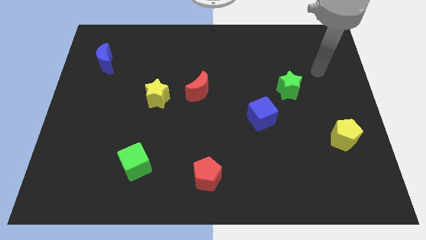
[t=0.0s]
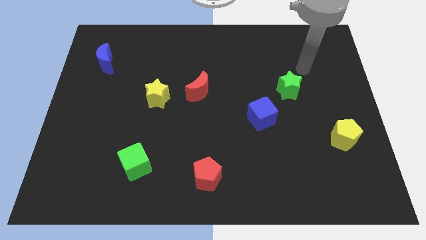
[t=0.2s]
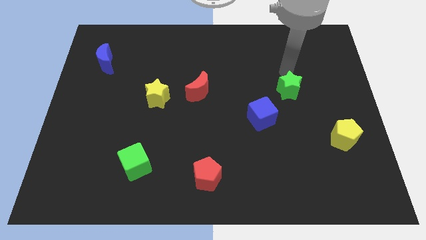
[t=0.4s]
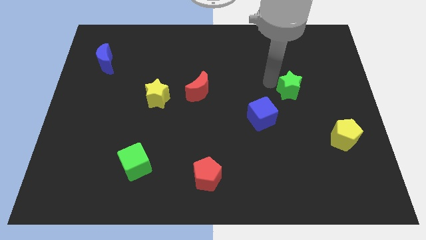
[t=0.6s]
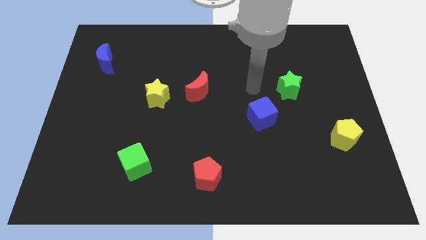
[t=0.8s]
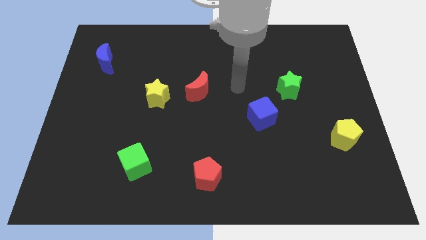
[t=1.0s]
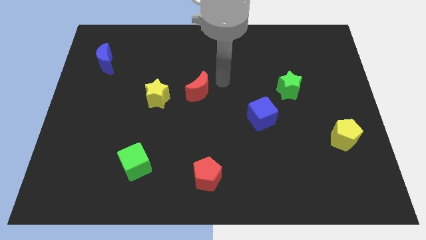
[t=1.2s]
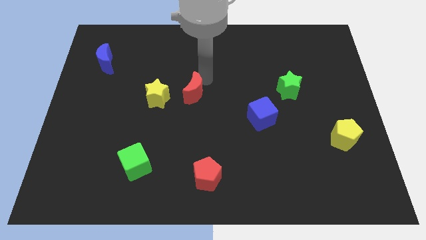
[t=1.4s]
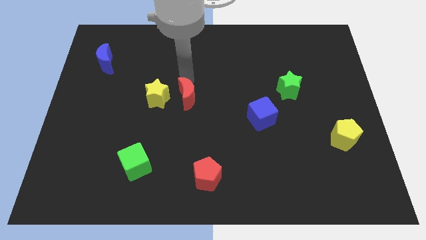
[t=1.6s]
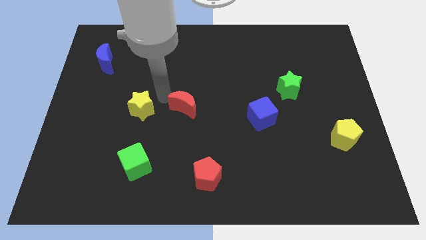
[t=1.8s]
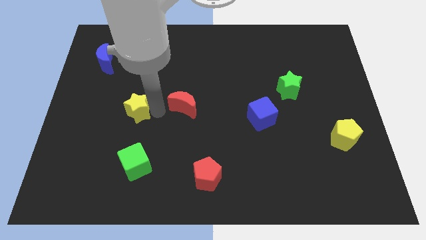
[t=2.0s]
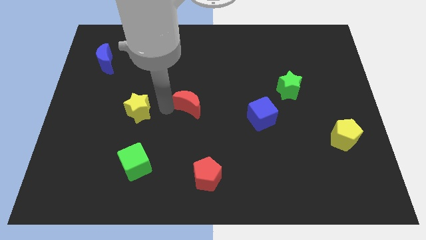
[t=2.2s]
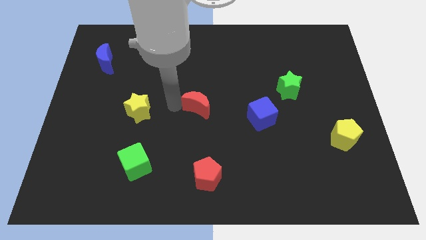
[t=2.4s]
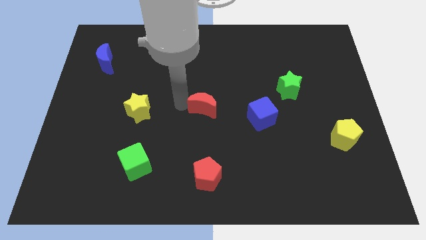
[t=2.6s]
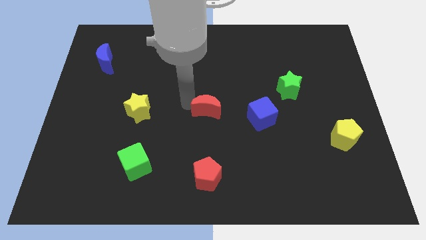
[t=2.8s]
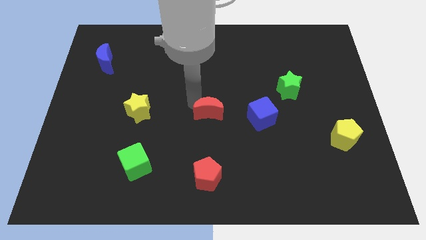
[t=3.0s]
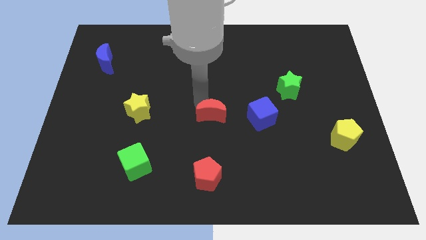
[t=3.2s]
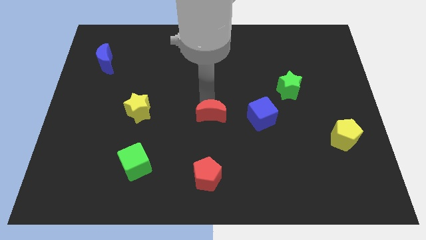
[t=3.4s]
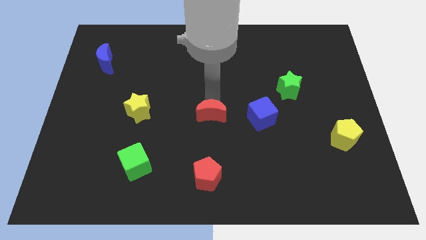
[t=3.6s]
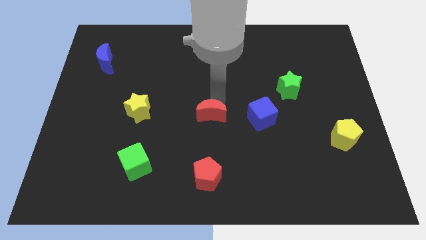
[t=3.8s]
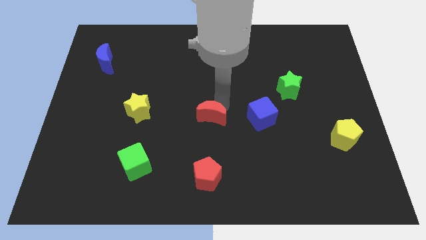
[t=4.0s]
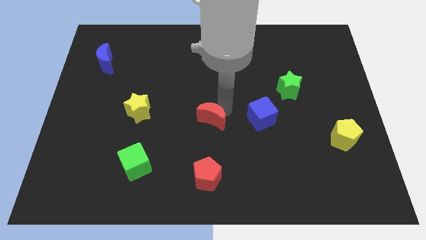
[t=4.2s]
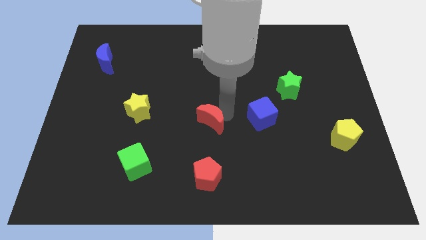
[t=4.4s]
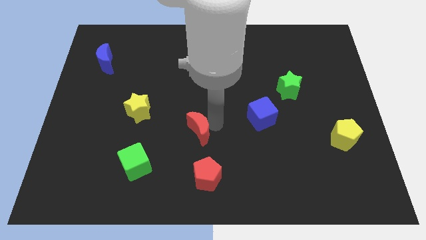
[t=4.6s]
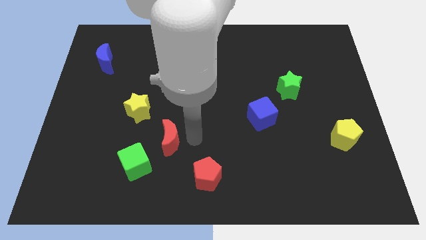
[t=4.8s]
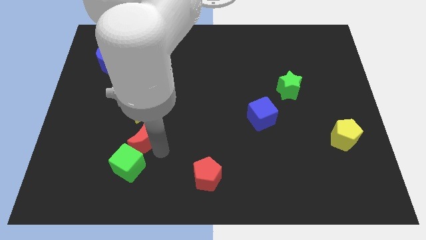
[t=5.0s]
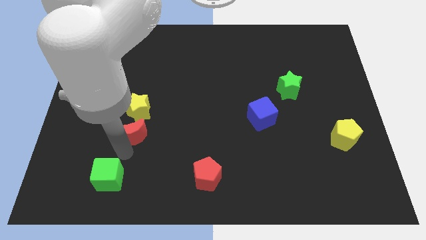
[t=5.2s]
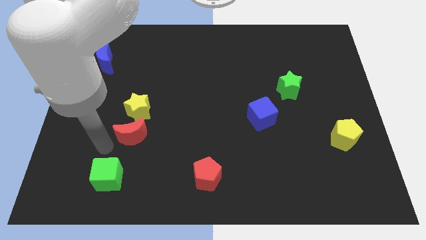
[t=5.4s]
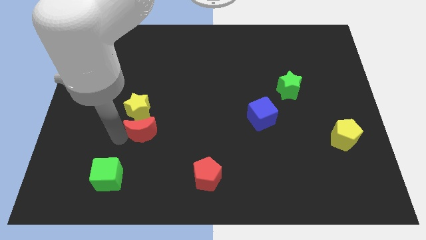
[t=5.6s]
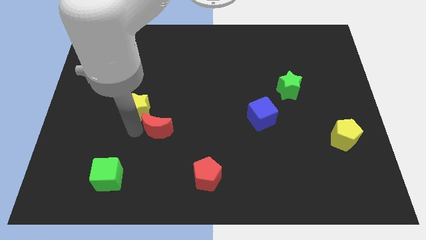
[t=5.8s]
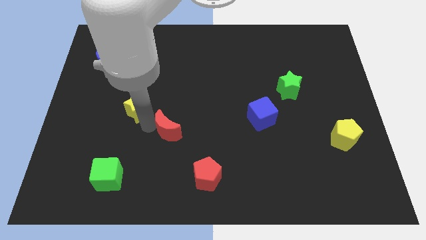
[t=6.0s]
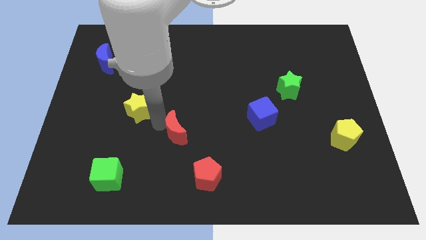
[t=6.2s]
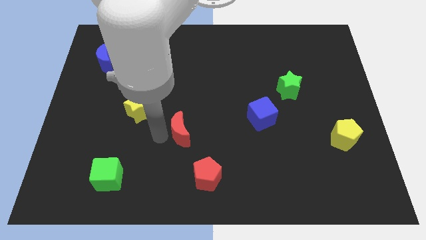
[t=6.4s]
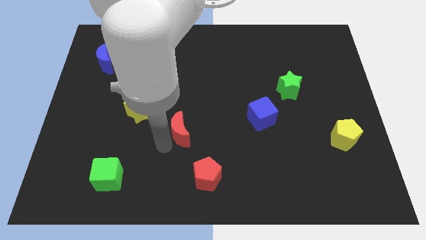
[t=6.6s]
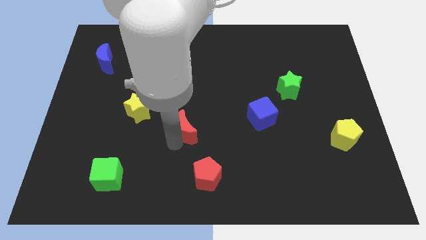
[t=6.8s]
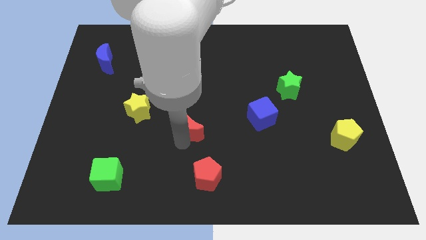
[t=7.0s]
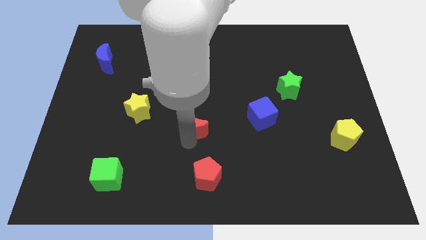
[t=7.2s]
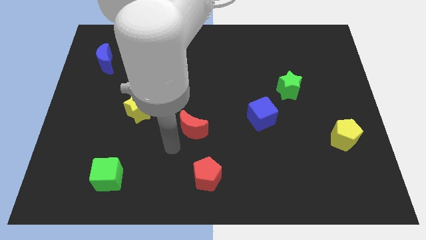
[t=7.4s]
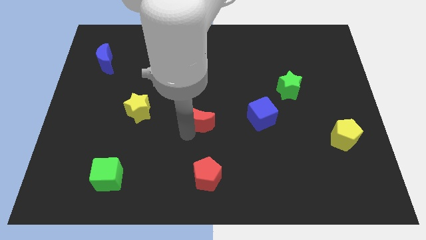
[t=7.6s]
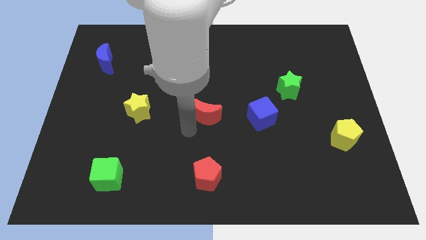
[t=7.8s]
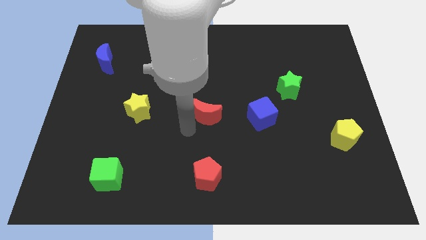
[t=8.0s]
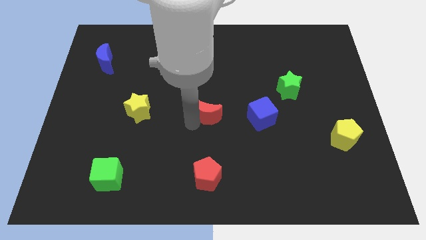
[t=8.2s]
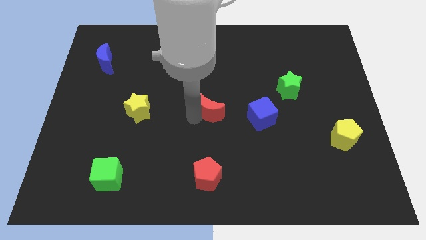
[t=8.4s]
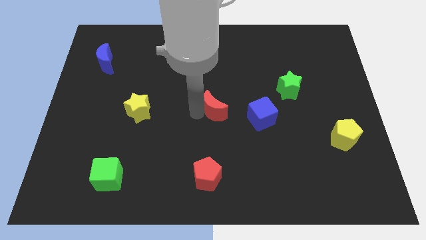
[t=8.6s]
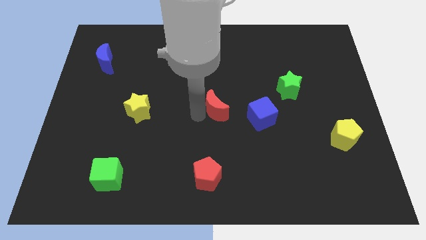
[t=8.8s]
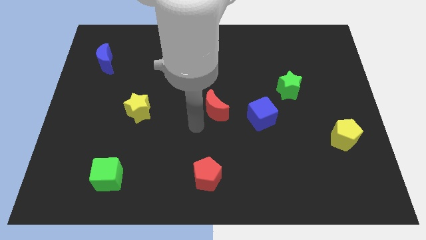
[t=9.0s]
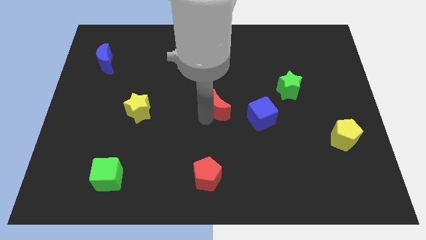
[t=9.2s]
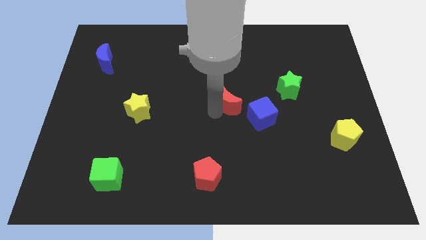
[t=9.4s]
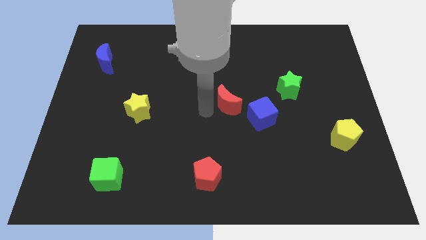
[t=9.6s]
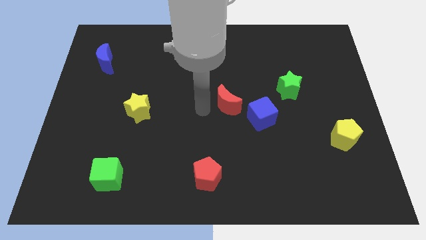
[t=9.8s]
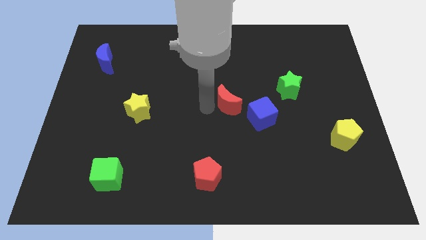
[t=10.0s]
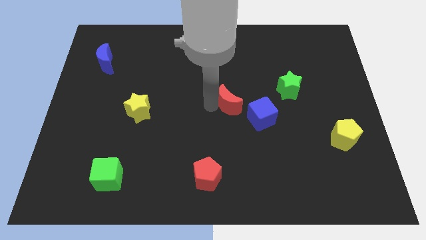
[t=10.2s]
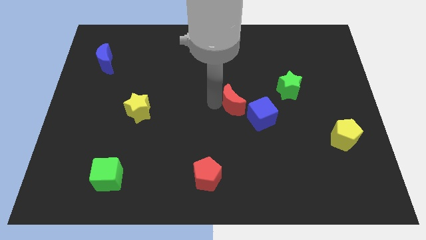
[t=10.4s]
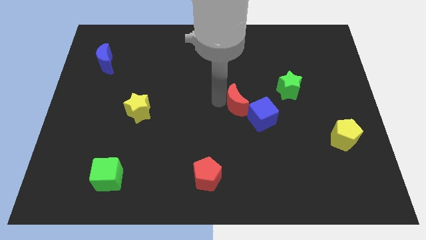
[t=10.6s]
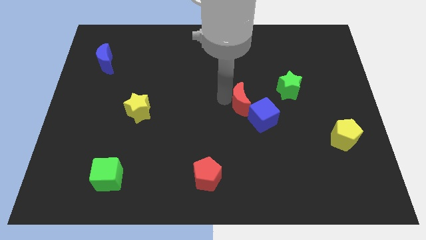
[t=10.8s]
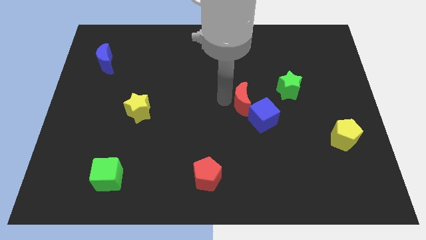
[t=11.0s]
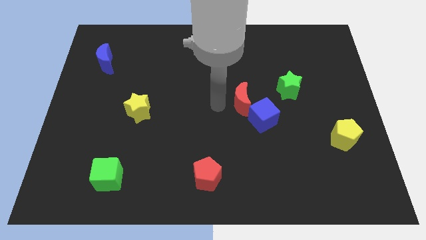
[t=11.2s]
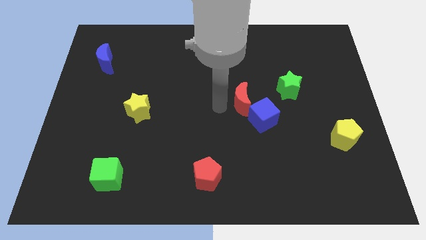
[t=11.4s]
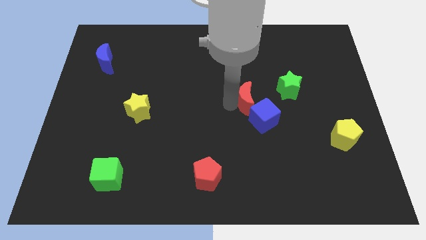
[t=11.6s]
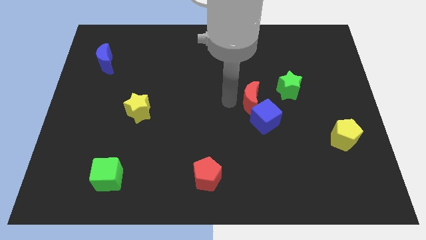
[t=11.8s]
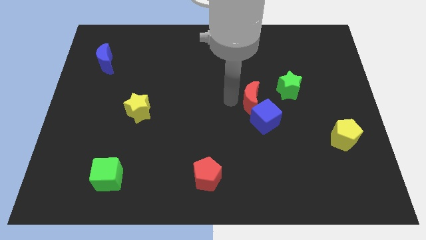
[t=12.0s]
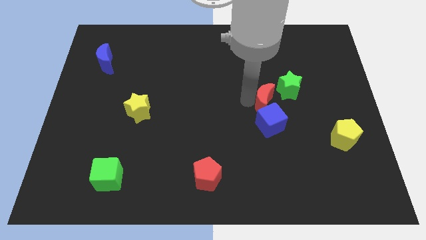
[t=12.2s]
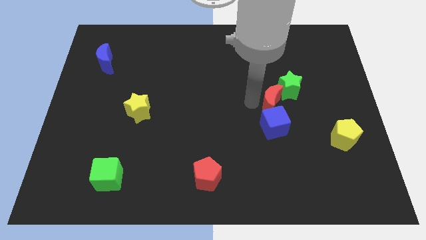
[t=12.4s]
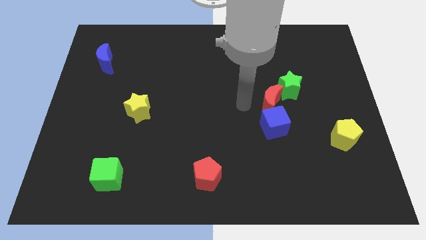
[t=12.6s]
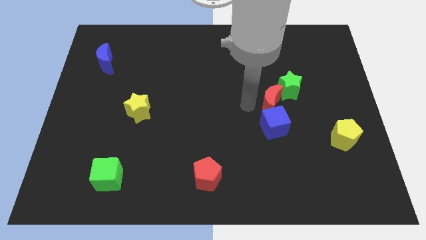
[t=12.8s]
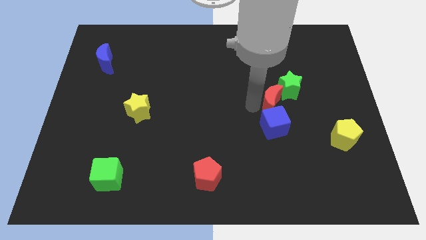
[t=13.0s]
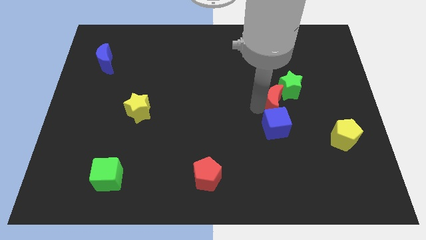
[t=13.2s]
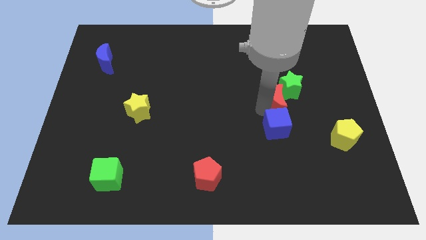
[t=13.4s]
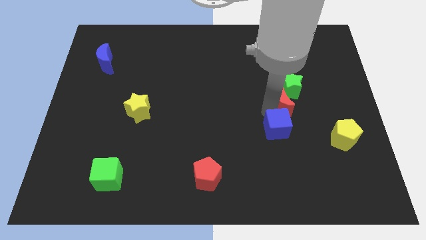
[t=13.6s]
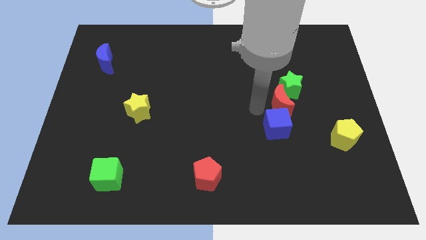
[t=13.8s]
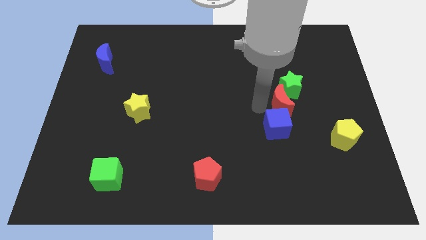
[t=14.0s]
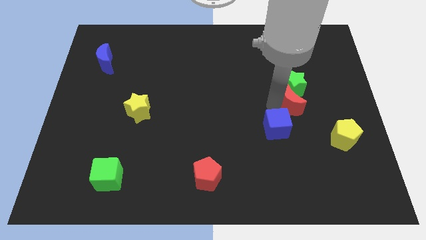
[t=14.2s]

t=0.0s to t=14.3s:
move the red moon right

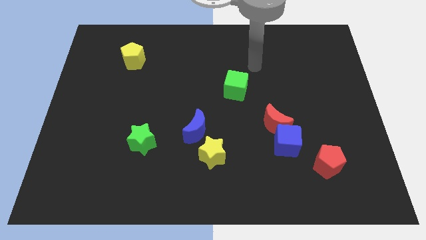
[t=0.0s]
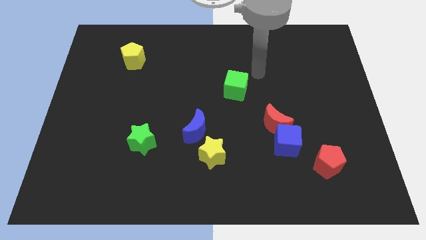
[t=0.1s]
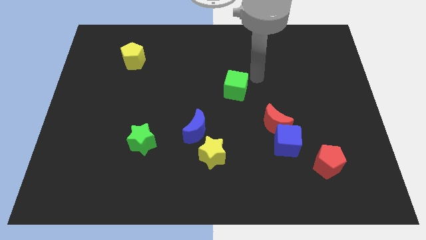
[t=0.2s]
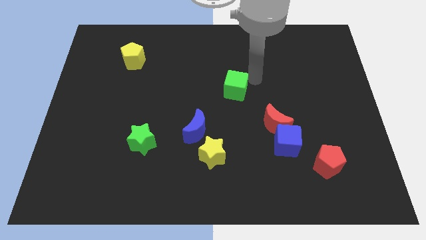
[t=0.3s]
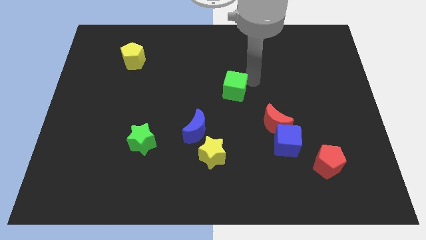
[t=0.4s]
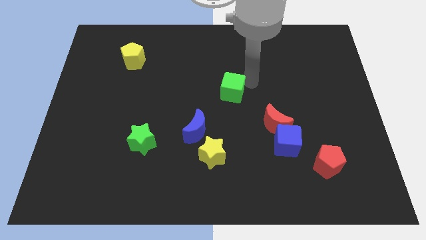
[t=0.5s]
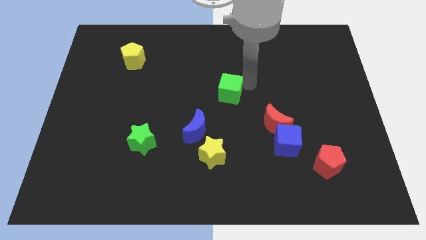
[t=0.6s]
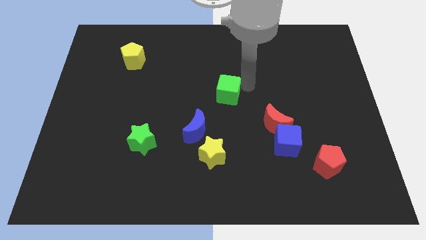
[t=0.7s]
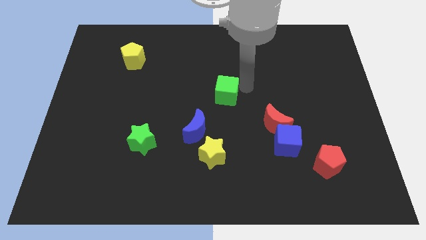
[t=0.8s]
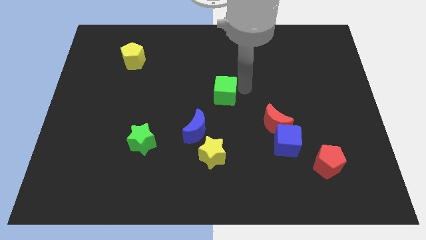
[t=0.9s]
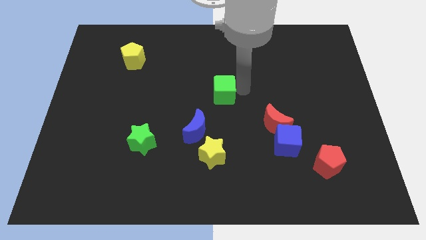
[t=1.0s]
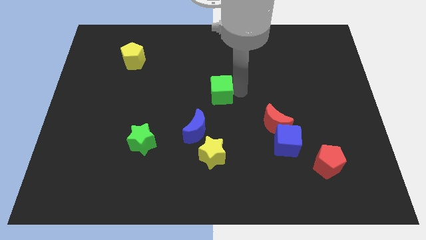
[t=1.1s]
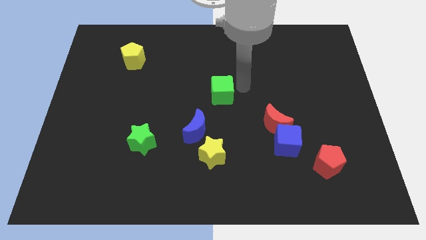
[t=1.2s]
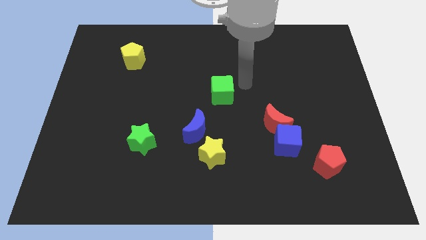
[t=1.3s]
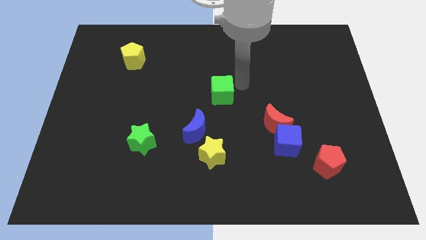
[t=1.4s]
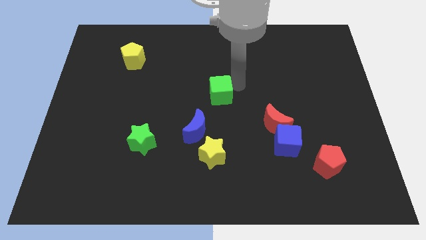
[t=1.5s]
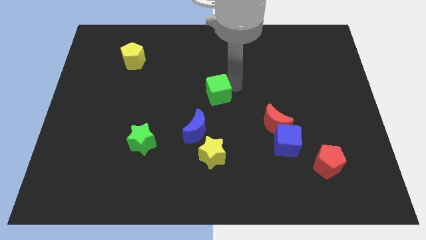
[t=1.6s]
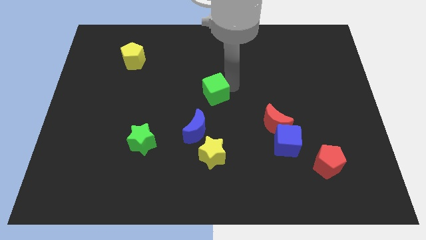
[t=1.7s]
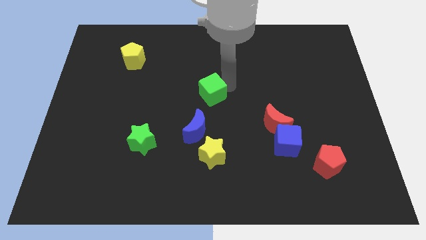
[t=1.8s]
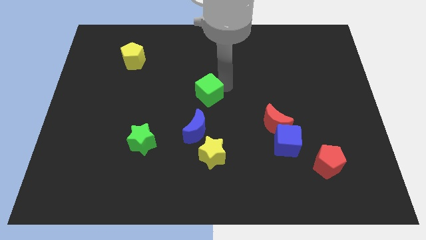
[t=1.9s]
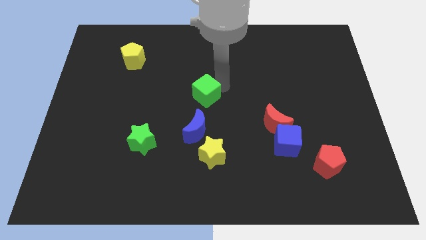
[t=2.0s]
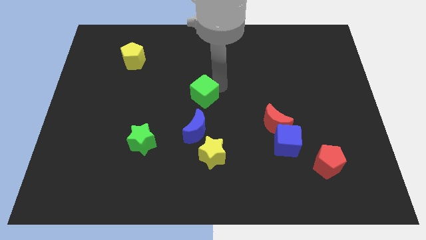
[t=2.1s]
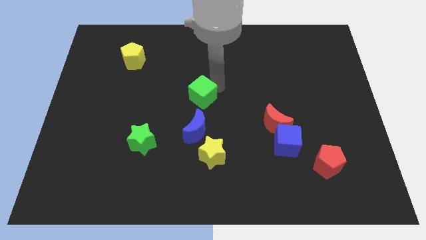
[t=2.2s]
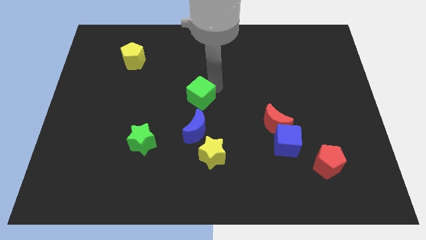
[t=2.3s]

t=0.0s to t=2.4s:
move the green cube slightly down and to the left
